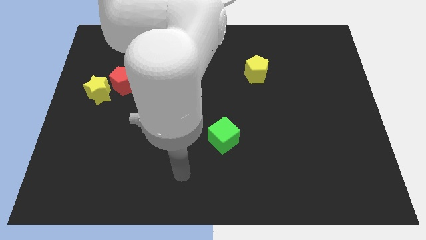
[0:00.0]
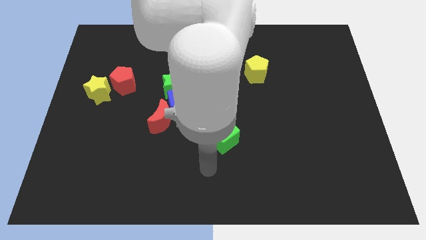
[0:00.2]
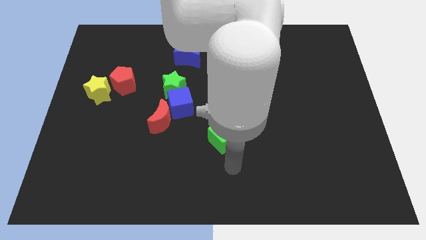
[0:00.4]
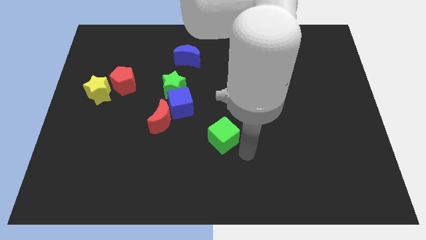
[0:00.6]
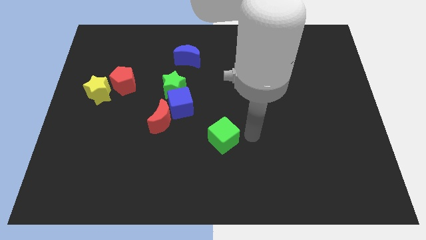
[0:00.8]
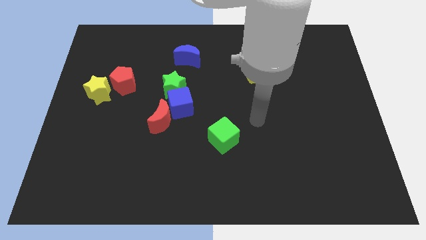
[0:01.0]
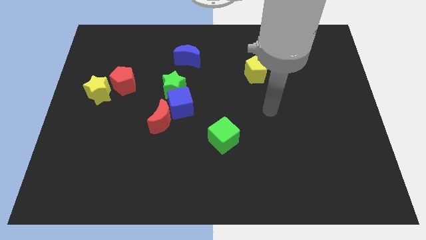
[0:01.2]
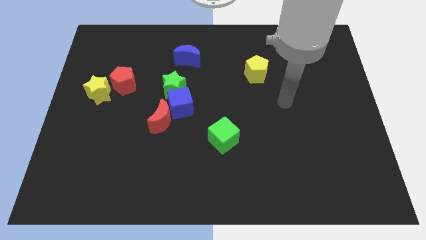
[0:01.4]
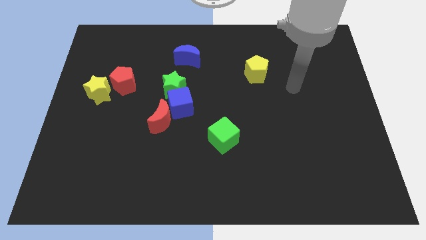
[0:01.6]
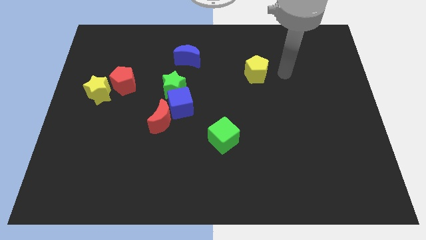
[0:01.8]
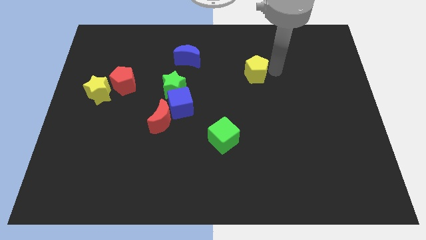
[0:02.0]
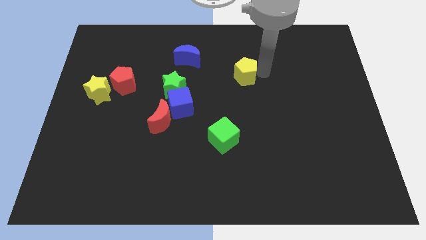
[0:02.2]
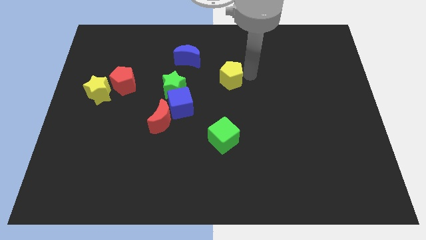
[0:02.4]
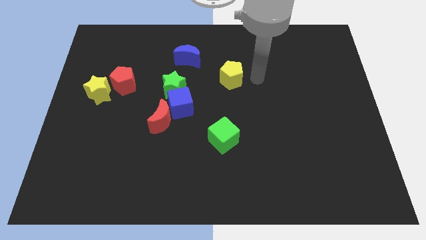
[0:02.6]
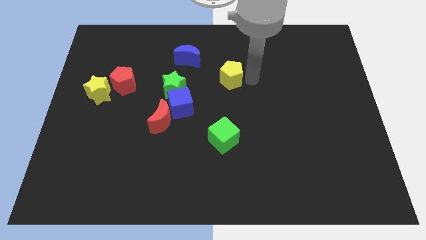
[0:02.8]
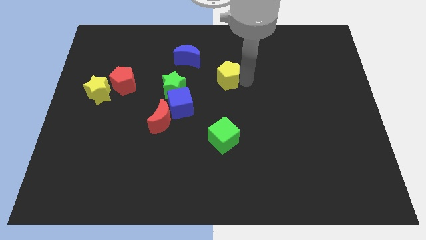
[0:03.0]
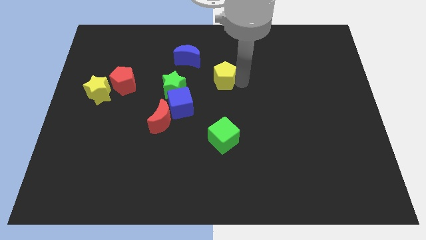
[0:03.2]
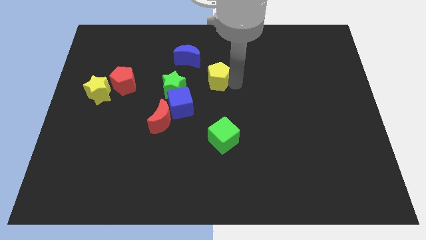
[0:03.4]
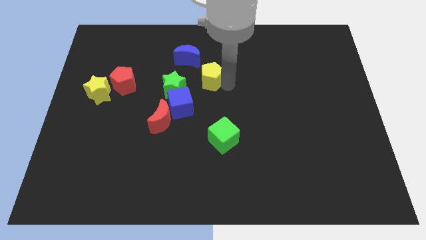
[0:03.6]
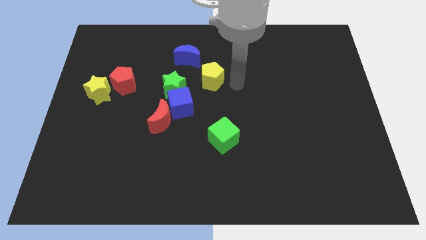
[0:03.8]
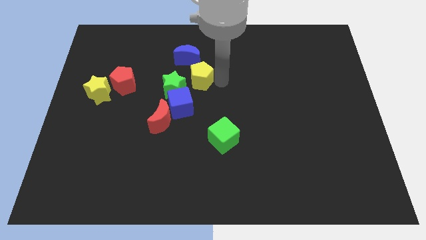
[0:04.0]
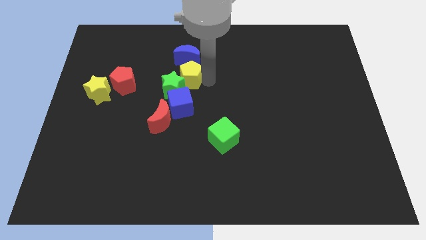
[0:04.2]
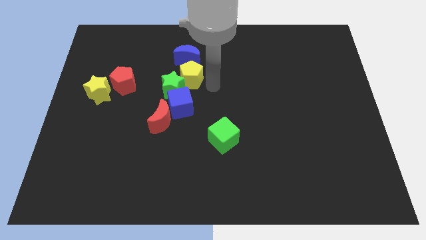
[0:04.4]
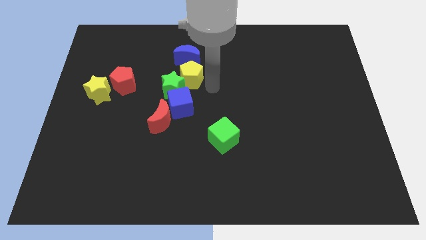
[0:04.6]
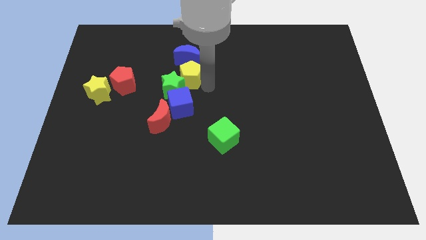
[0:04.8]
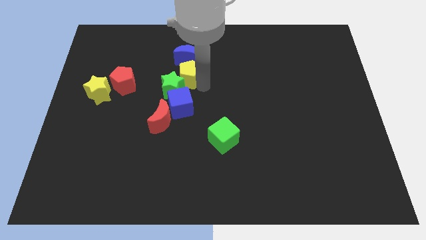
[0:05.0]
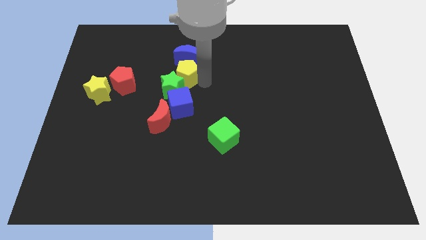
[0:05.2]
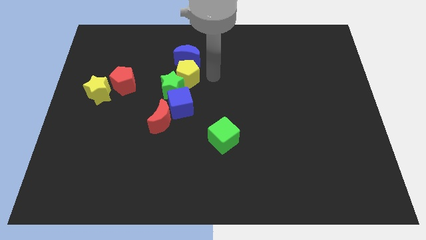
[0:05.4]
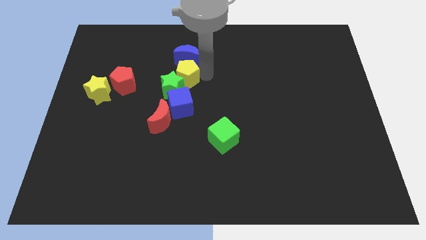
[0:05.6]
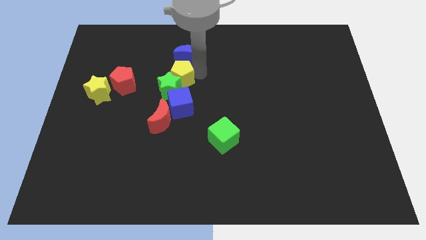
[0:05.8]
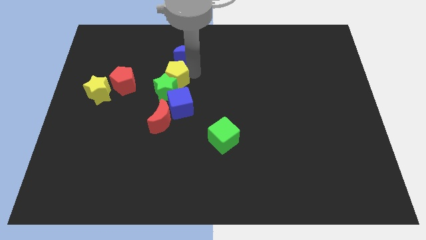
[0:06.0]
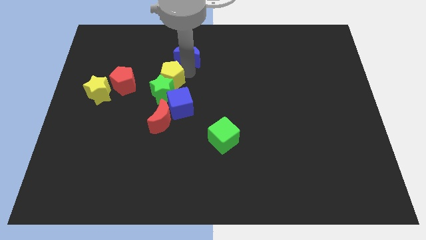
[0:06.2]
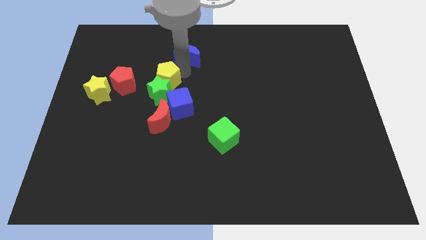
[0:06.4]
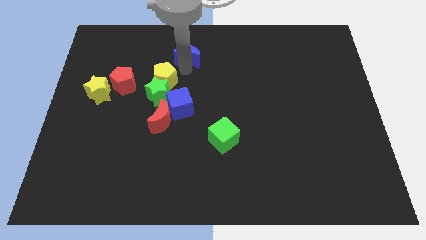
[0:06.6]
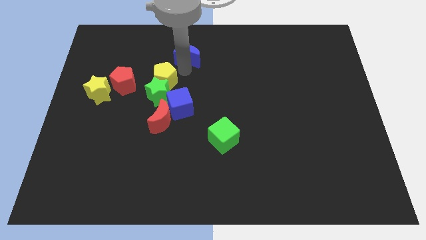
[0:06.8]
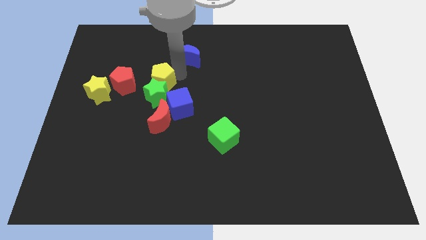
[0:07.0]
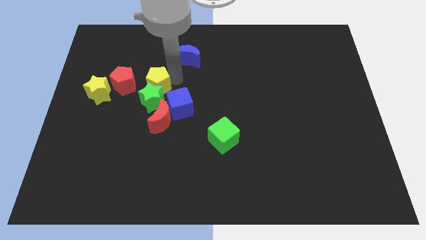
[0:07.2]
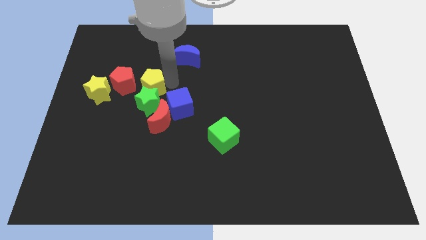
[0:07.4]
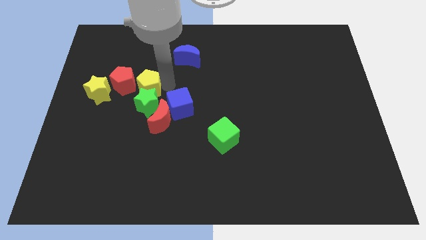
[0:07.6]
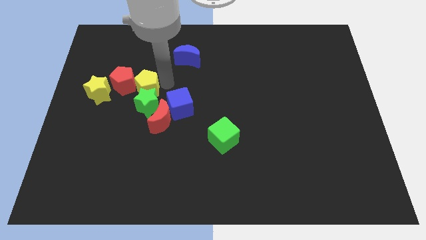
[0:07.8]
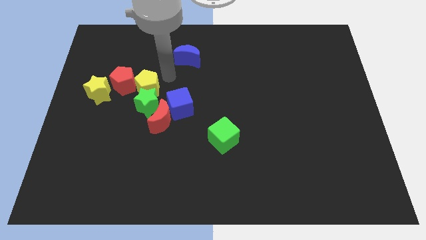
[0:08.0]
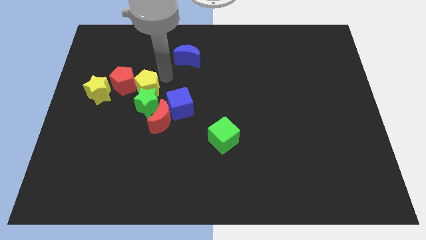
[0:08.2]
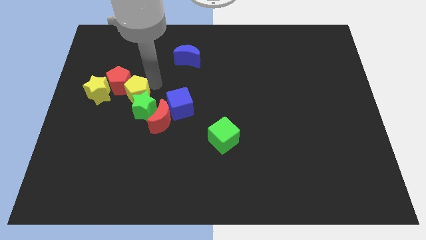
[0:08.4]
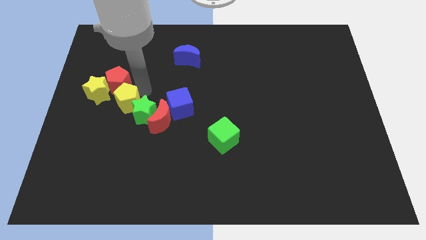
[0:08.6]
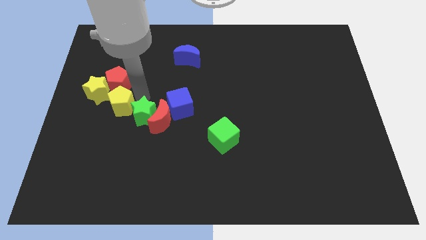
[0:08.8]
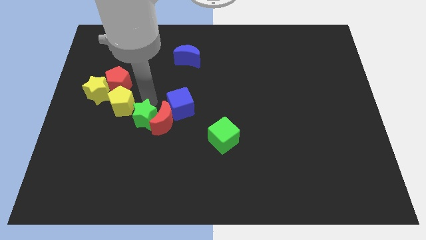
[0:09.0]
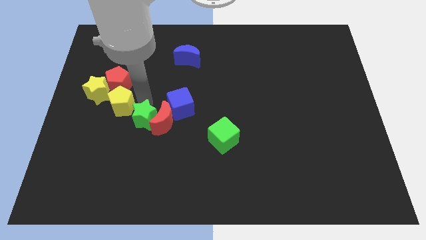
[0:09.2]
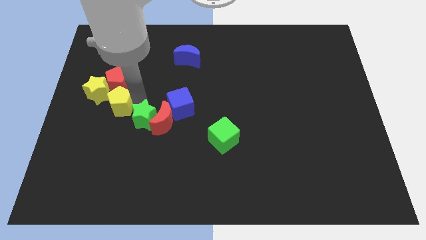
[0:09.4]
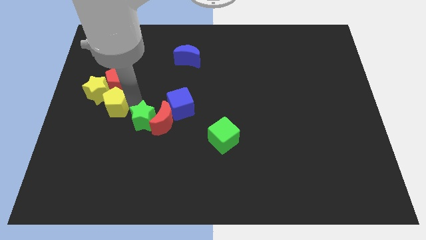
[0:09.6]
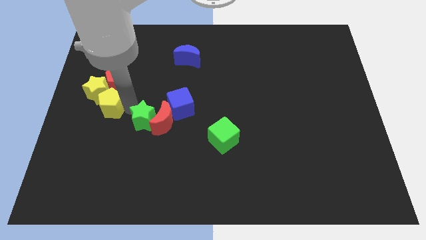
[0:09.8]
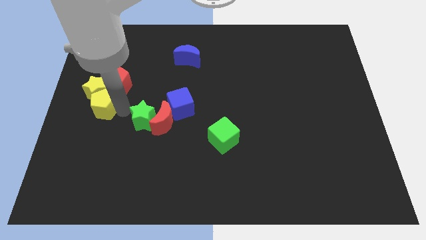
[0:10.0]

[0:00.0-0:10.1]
push the yellow pentagon to the left side of the board

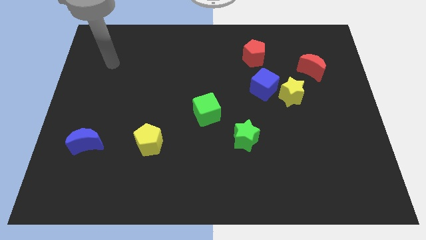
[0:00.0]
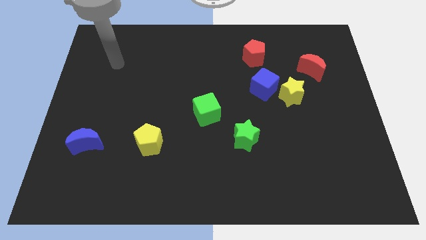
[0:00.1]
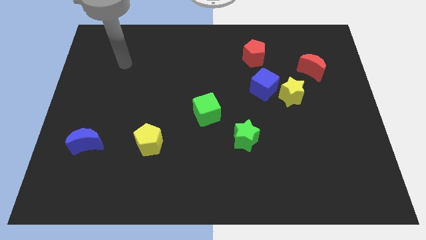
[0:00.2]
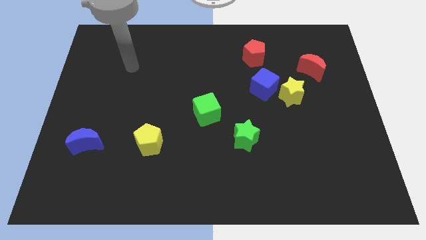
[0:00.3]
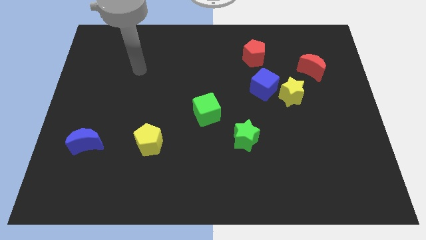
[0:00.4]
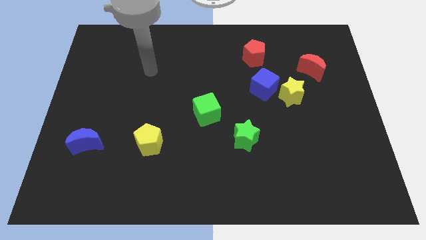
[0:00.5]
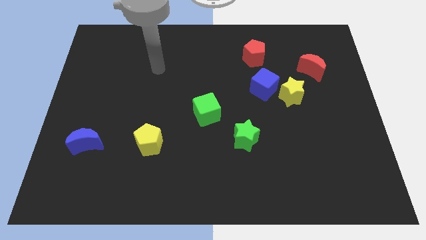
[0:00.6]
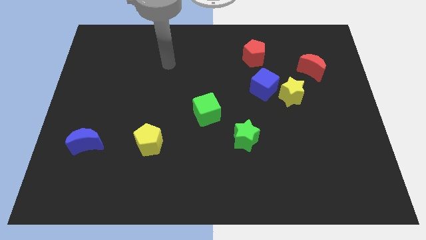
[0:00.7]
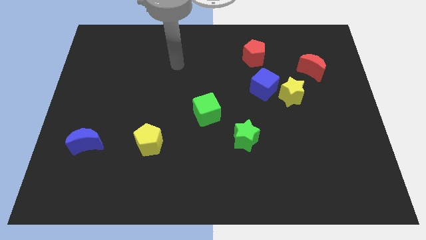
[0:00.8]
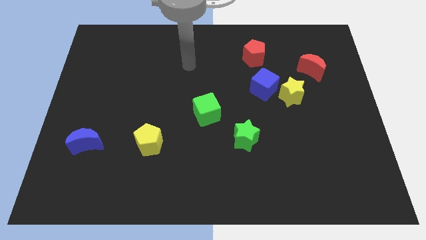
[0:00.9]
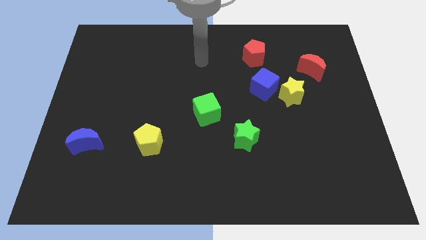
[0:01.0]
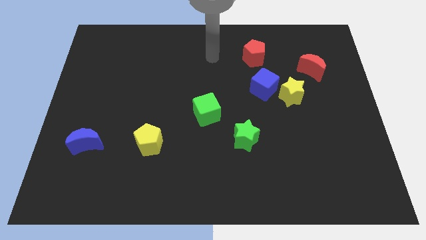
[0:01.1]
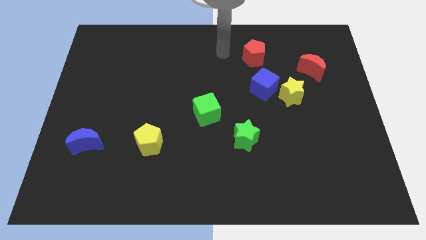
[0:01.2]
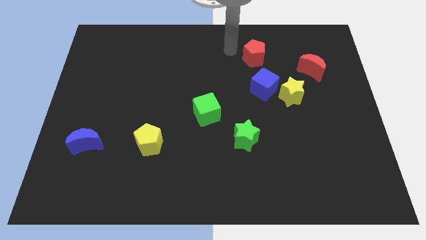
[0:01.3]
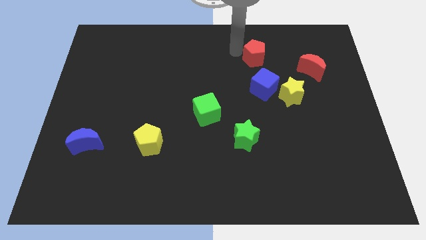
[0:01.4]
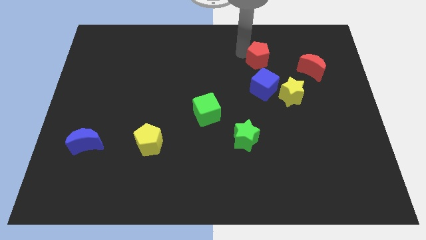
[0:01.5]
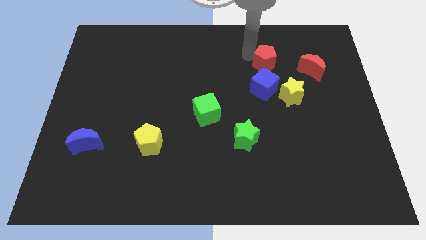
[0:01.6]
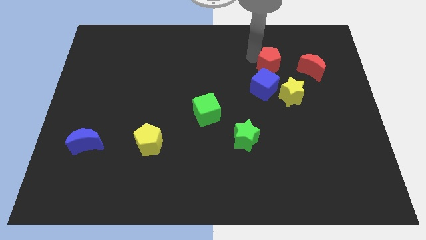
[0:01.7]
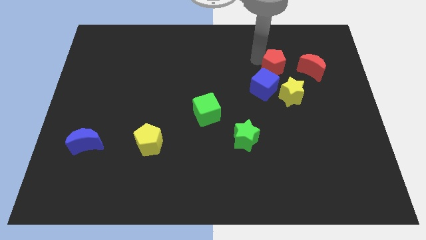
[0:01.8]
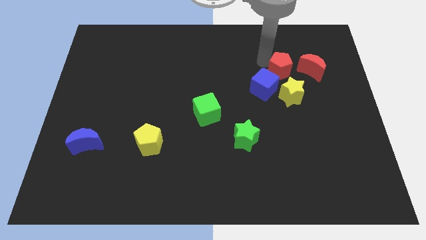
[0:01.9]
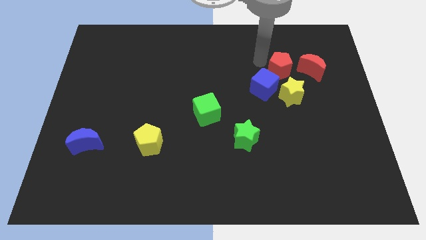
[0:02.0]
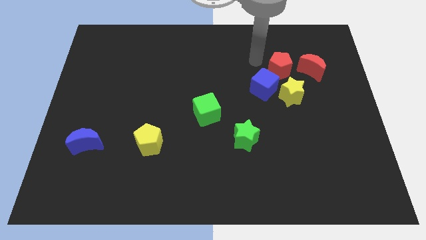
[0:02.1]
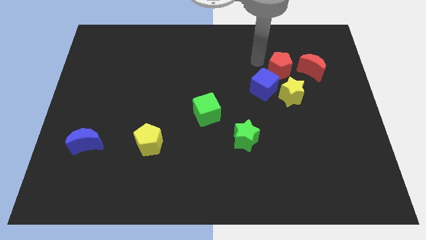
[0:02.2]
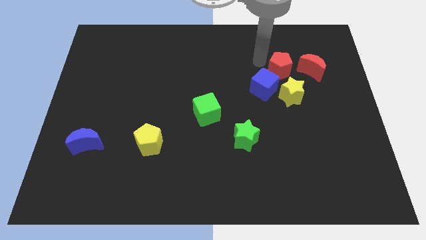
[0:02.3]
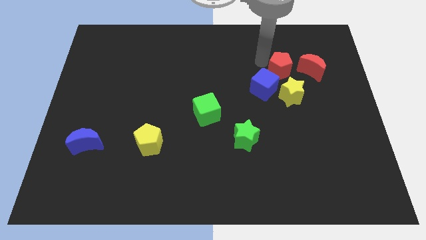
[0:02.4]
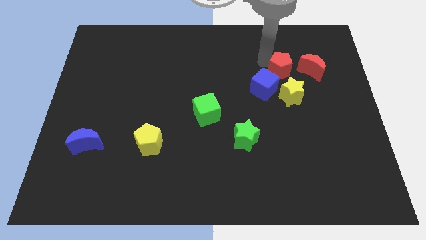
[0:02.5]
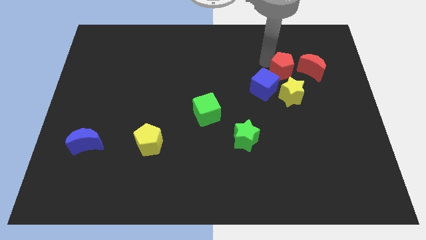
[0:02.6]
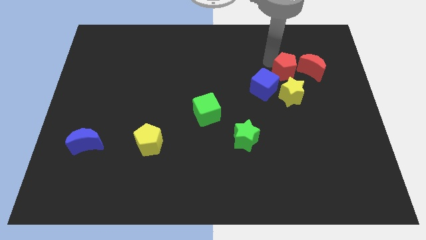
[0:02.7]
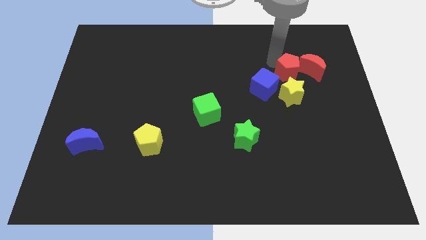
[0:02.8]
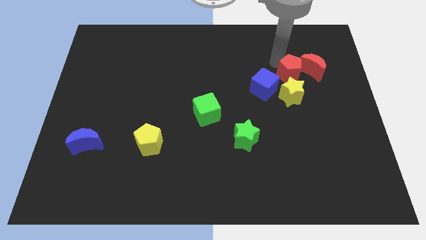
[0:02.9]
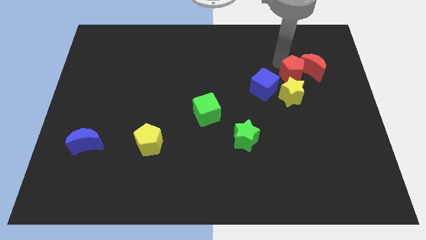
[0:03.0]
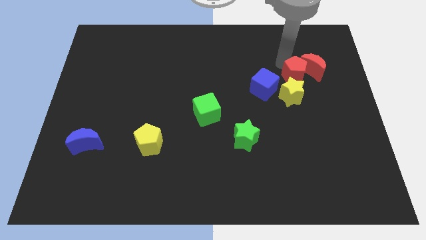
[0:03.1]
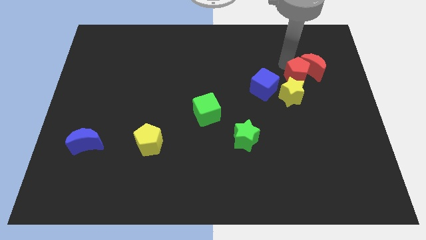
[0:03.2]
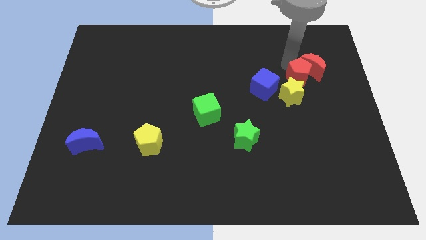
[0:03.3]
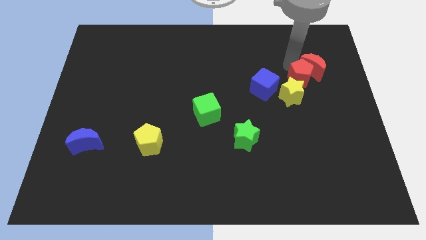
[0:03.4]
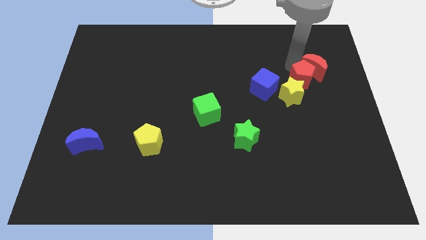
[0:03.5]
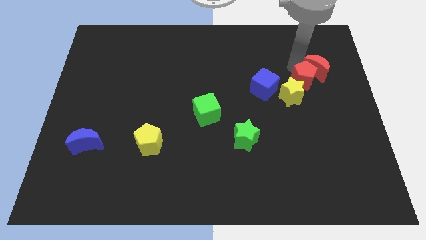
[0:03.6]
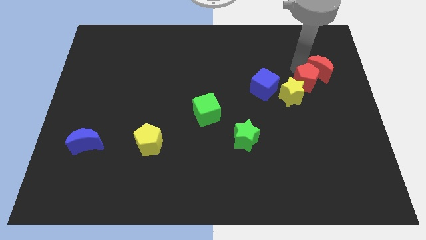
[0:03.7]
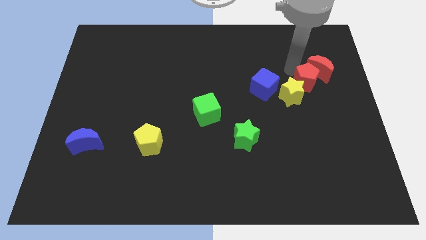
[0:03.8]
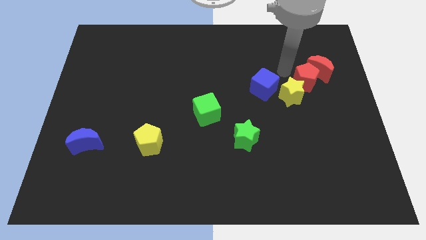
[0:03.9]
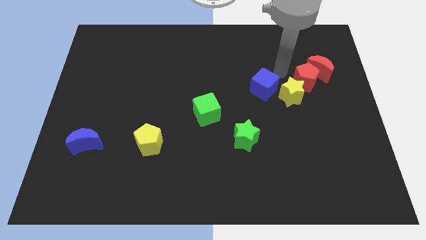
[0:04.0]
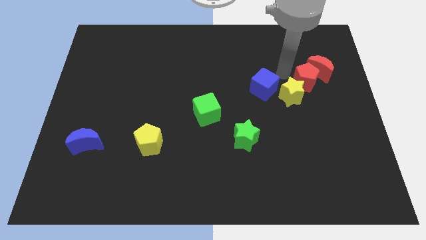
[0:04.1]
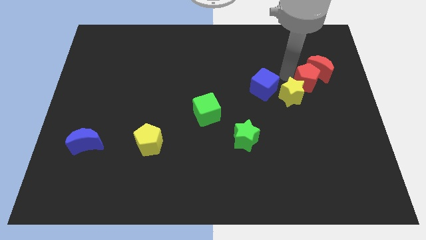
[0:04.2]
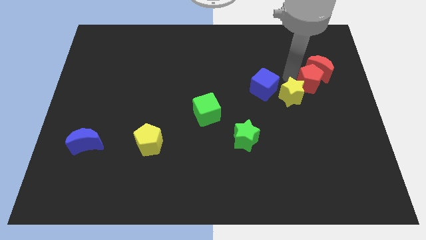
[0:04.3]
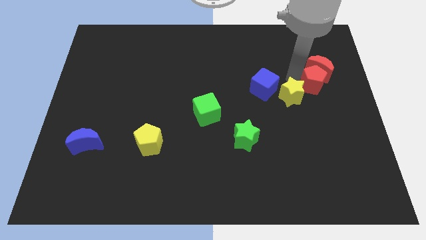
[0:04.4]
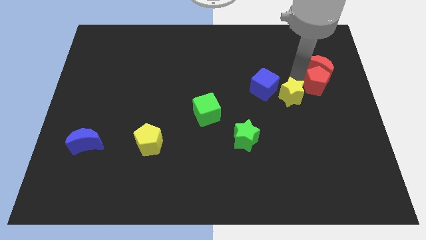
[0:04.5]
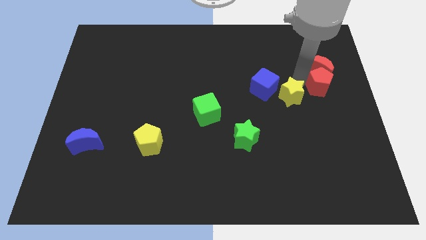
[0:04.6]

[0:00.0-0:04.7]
push the red pentagon to the right side of the board
